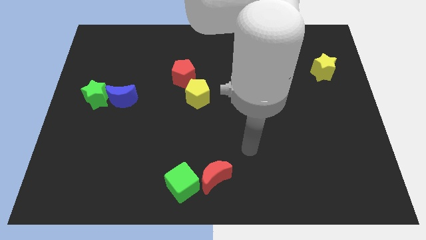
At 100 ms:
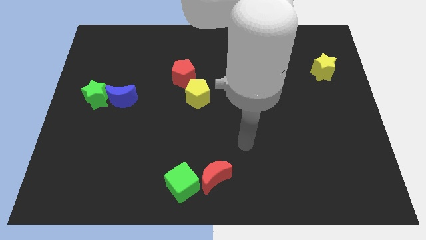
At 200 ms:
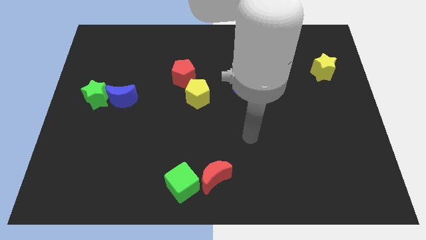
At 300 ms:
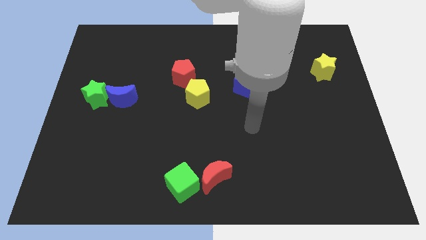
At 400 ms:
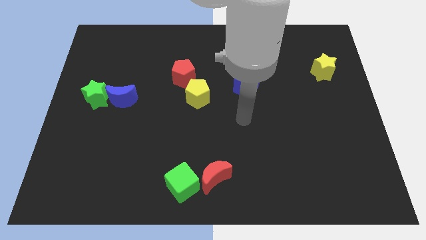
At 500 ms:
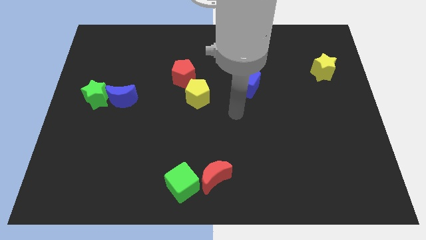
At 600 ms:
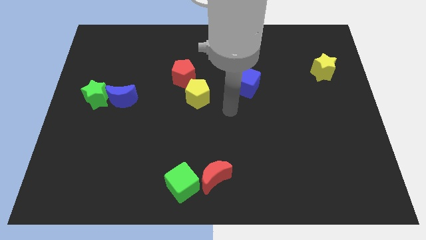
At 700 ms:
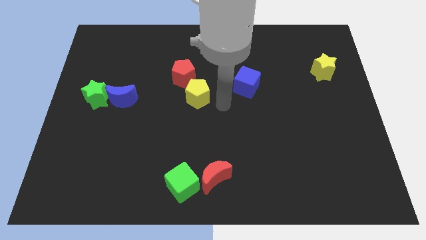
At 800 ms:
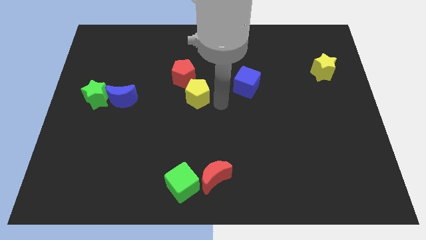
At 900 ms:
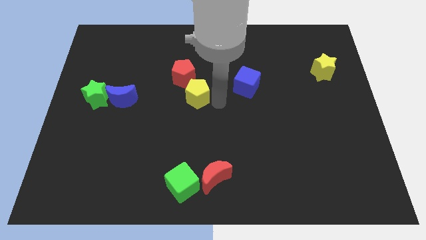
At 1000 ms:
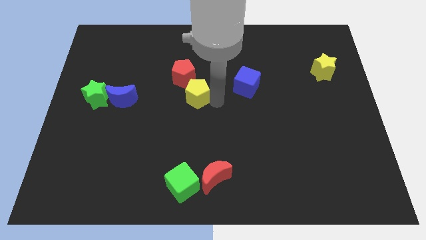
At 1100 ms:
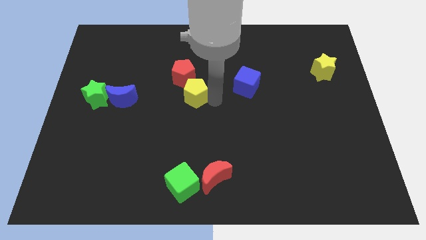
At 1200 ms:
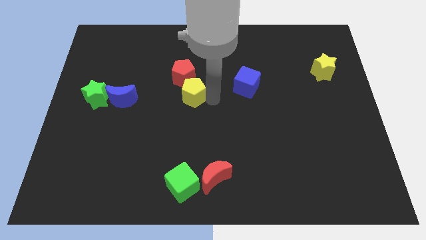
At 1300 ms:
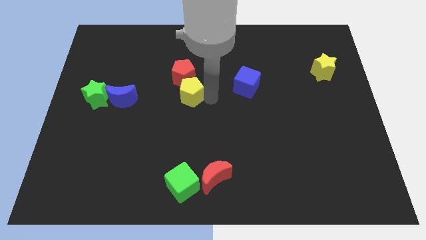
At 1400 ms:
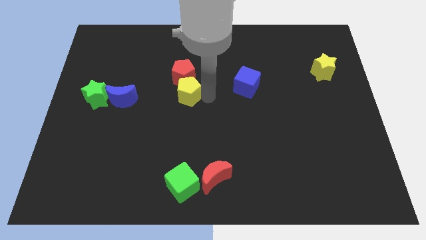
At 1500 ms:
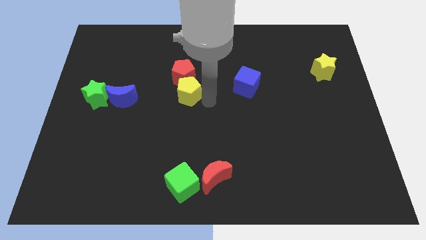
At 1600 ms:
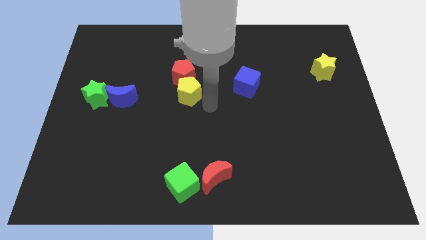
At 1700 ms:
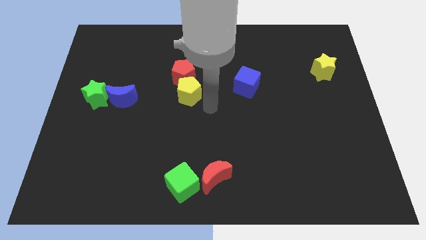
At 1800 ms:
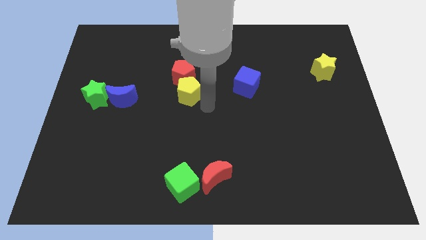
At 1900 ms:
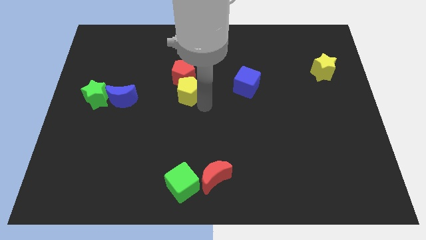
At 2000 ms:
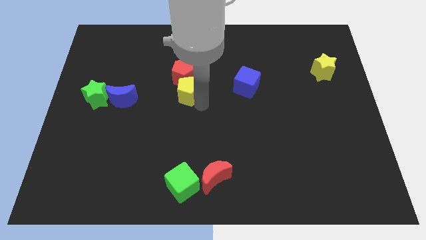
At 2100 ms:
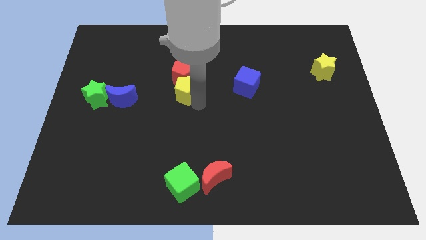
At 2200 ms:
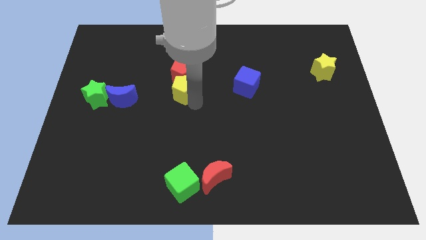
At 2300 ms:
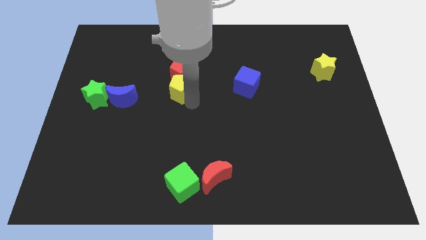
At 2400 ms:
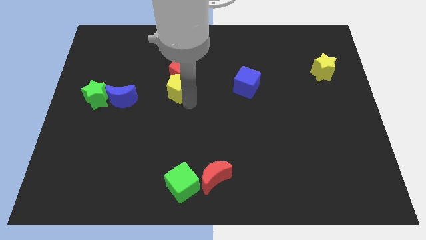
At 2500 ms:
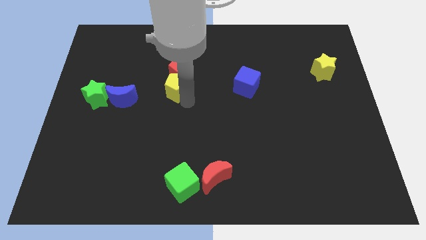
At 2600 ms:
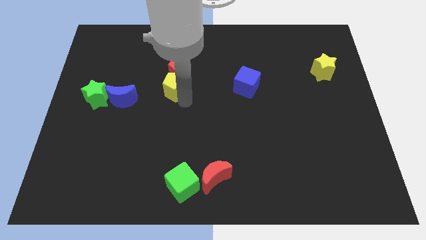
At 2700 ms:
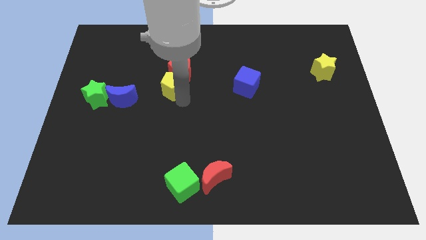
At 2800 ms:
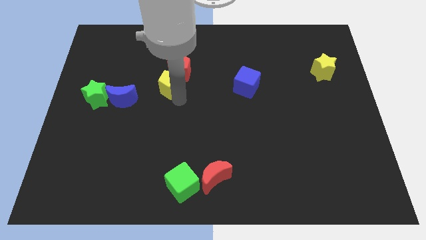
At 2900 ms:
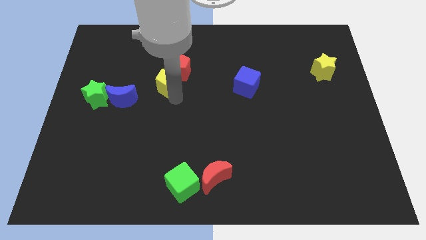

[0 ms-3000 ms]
slide the yellow pentagon up and then left a little

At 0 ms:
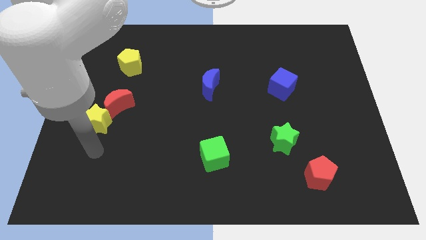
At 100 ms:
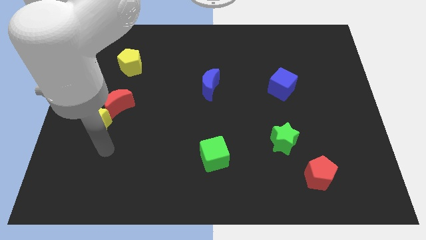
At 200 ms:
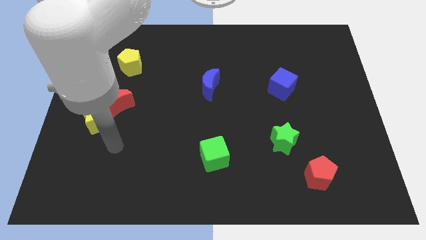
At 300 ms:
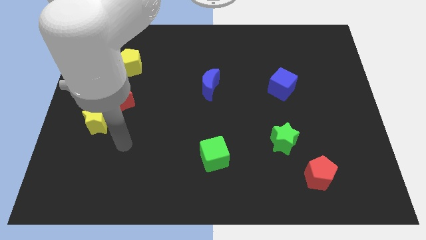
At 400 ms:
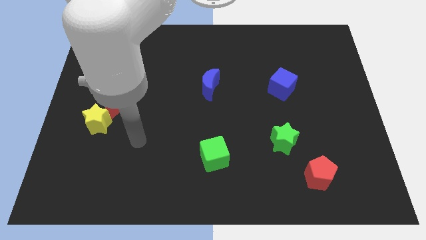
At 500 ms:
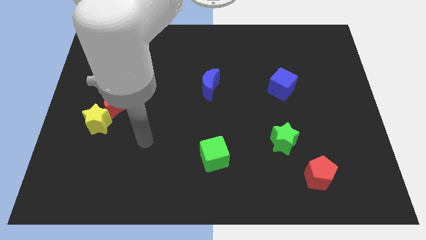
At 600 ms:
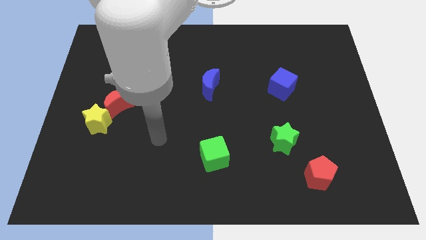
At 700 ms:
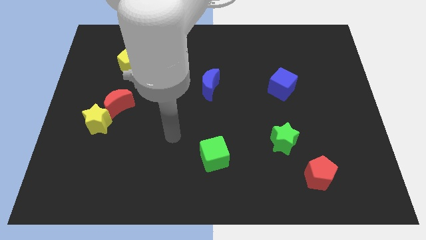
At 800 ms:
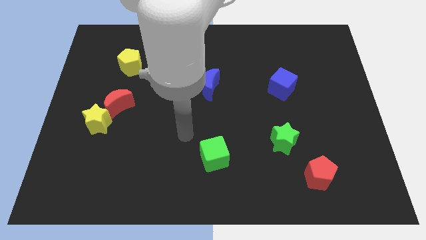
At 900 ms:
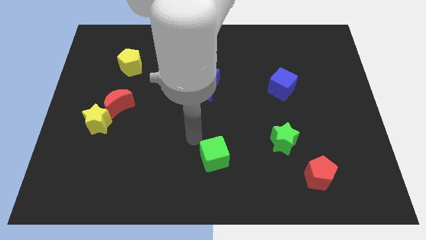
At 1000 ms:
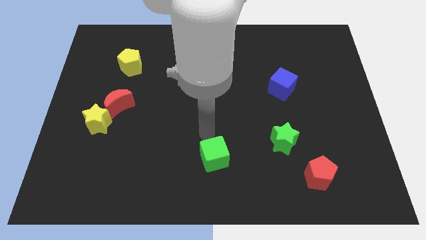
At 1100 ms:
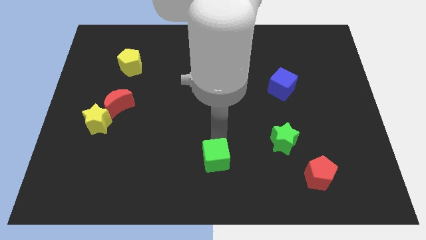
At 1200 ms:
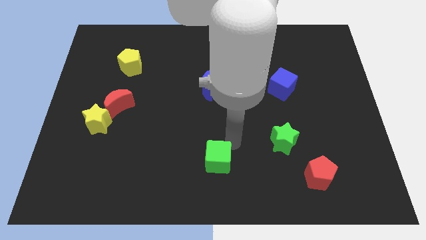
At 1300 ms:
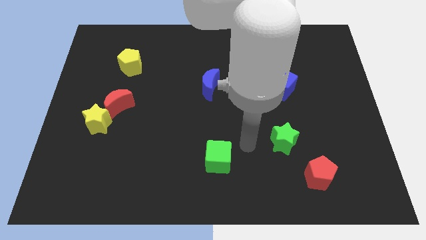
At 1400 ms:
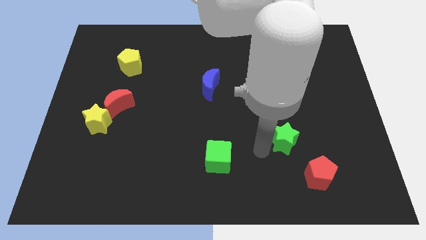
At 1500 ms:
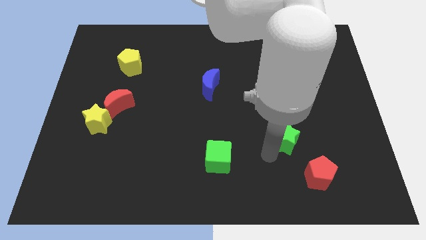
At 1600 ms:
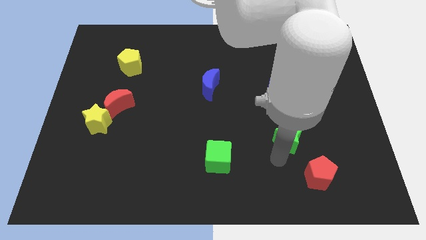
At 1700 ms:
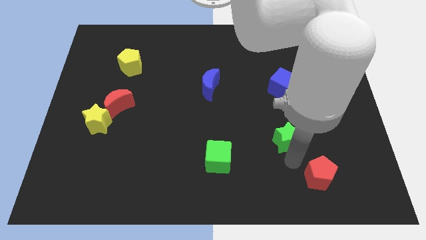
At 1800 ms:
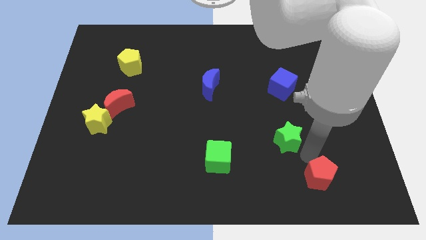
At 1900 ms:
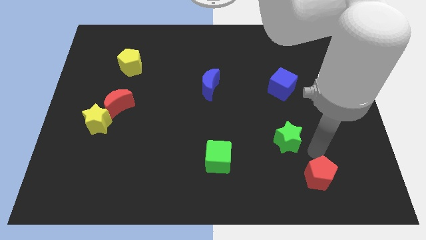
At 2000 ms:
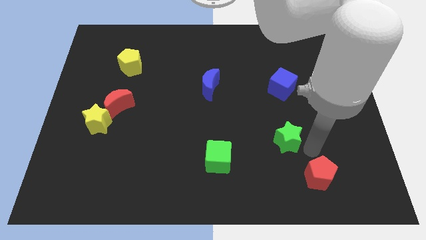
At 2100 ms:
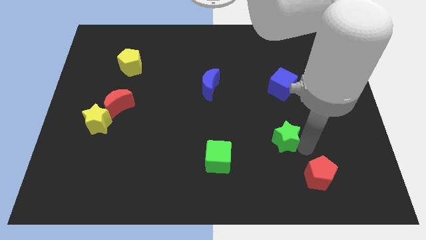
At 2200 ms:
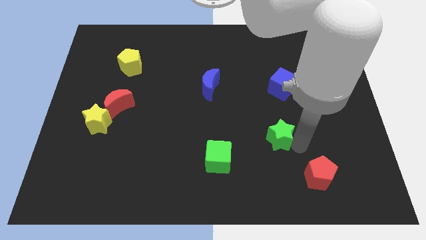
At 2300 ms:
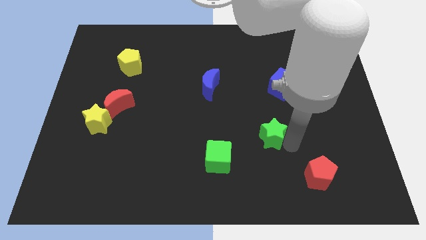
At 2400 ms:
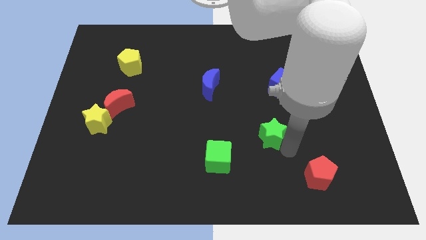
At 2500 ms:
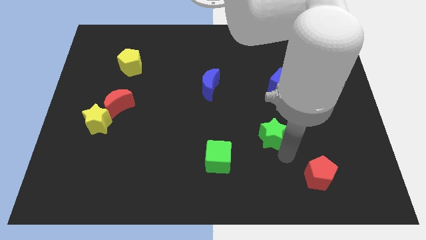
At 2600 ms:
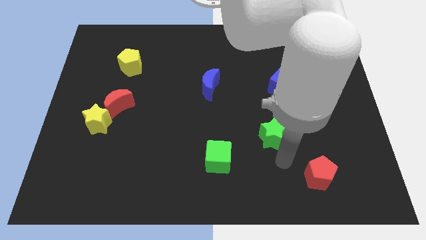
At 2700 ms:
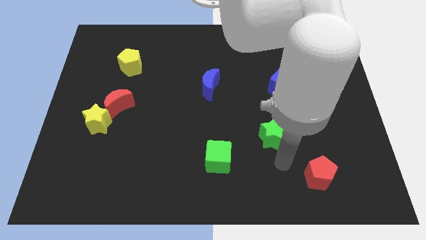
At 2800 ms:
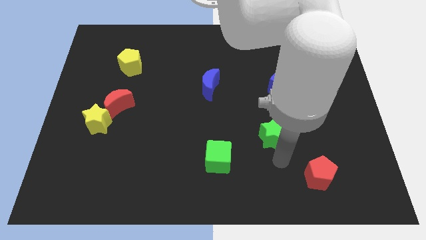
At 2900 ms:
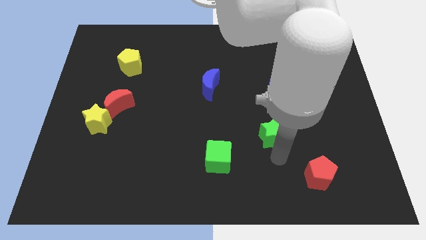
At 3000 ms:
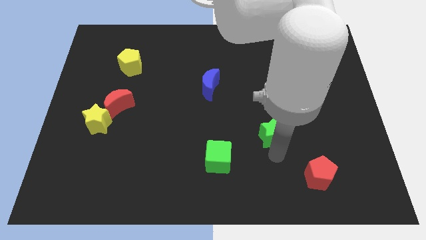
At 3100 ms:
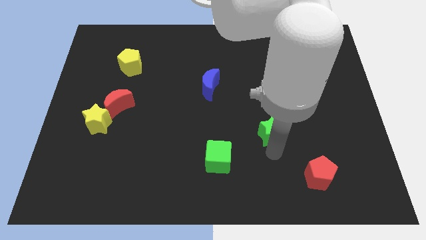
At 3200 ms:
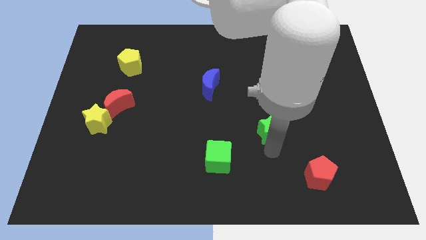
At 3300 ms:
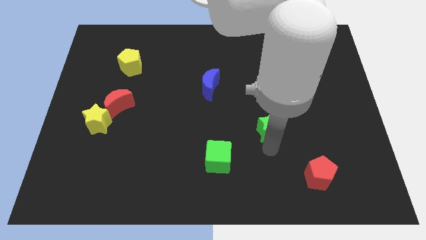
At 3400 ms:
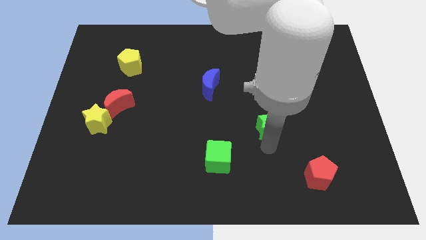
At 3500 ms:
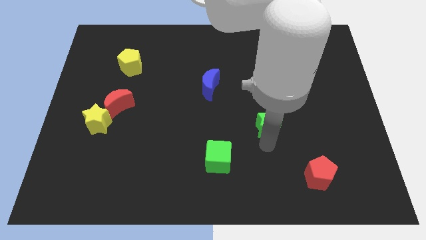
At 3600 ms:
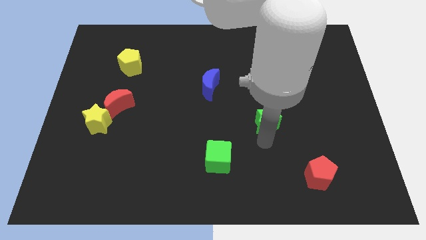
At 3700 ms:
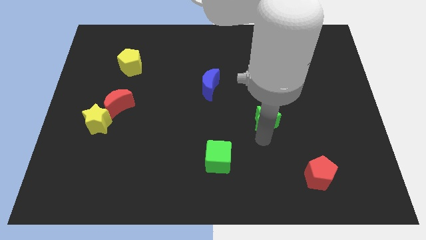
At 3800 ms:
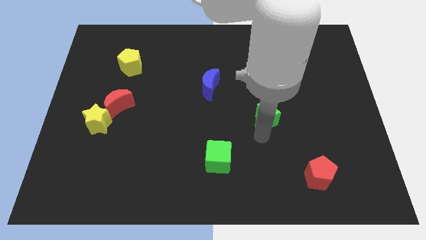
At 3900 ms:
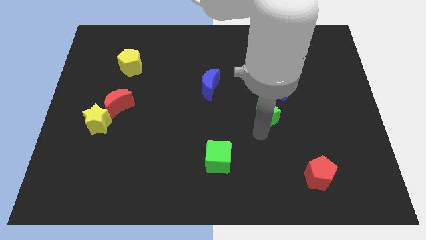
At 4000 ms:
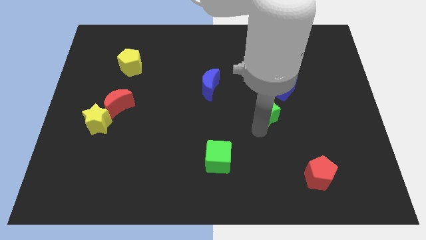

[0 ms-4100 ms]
move the green star slightly up

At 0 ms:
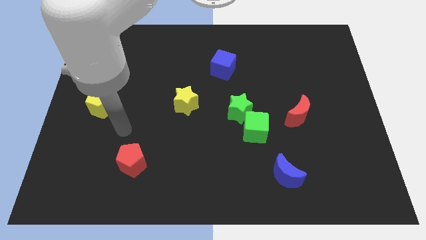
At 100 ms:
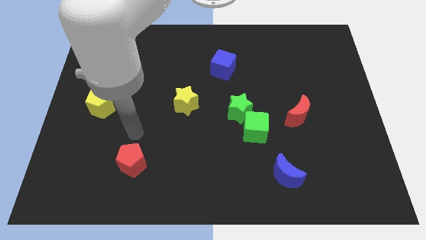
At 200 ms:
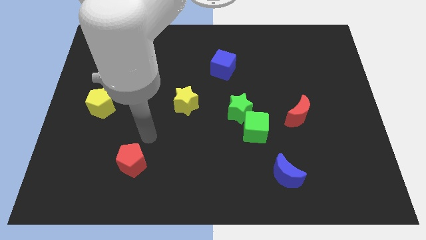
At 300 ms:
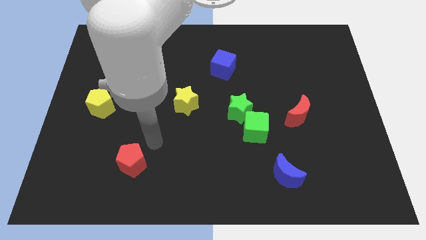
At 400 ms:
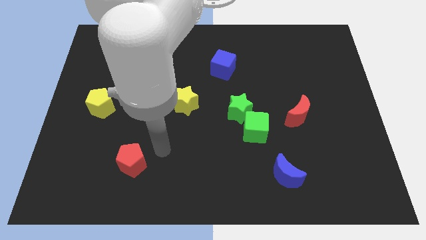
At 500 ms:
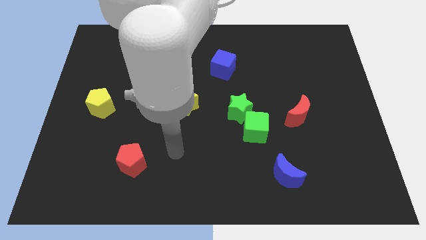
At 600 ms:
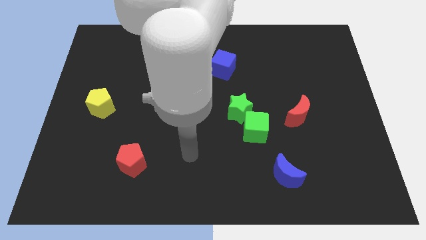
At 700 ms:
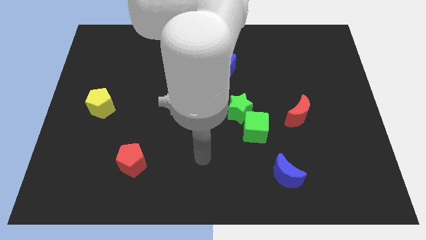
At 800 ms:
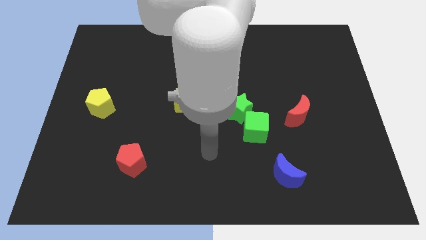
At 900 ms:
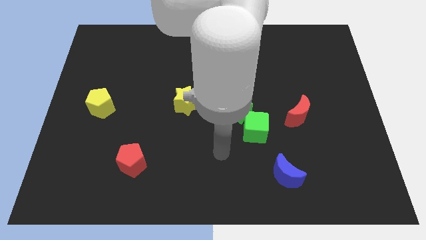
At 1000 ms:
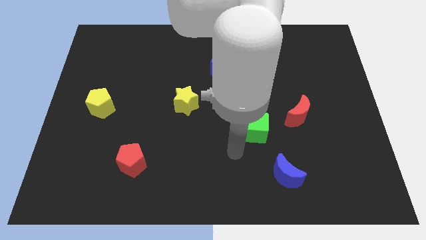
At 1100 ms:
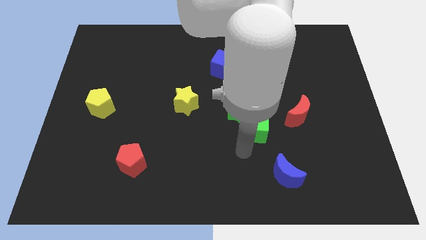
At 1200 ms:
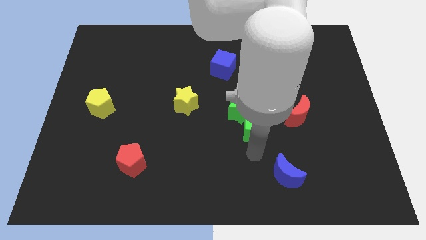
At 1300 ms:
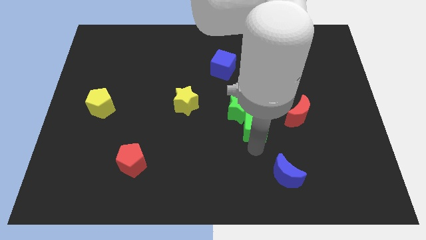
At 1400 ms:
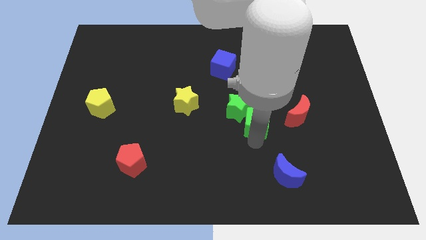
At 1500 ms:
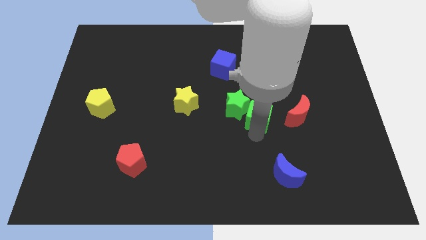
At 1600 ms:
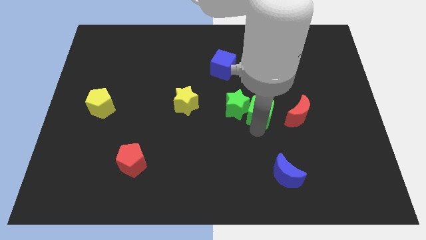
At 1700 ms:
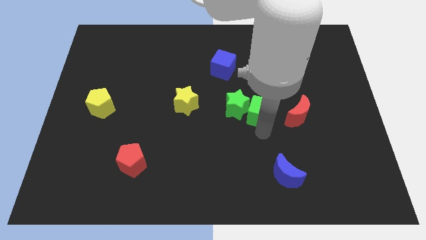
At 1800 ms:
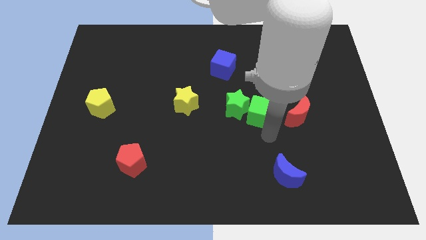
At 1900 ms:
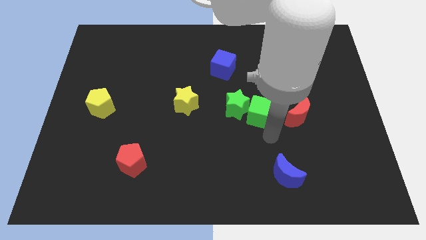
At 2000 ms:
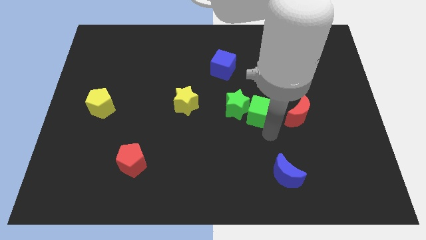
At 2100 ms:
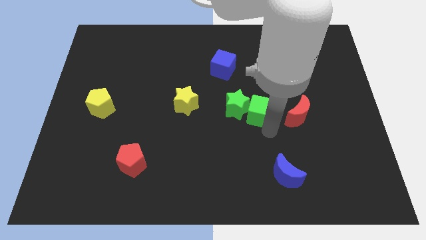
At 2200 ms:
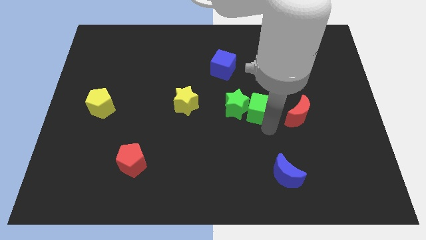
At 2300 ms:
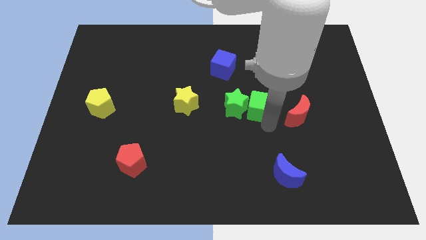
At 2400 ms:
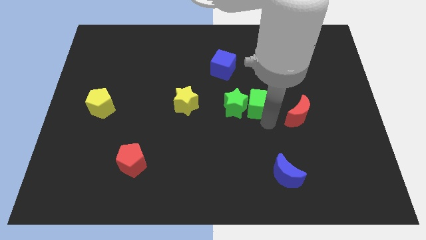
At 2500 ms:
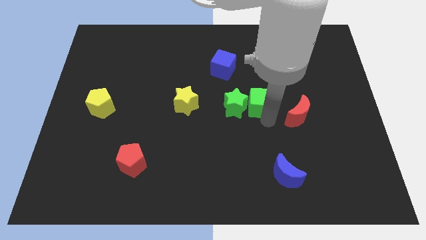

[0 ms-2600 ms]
slightly move the green cube up
